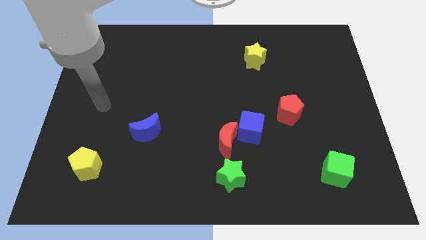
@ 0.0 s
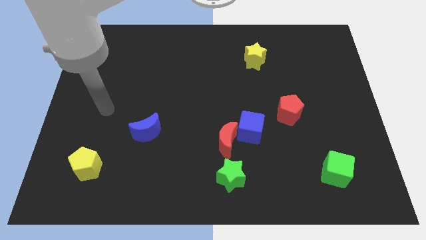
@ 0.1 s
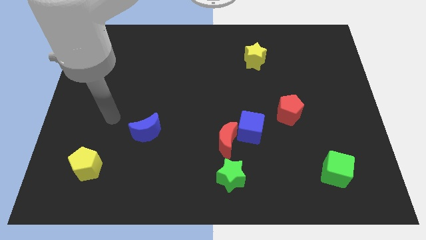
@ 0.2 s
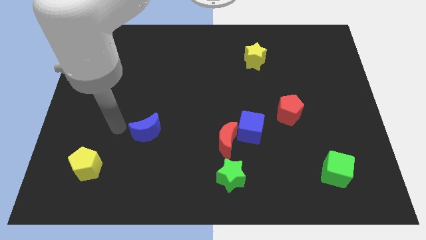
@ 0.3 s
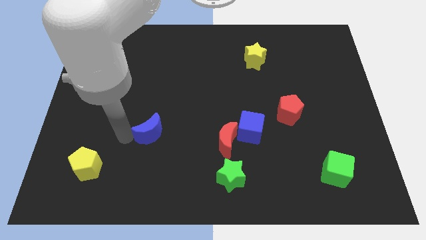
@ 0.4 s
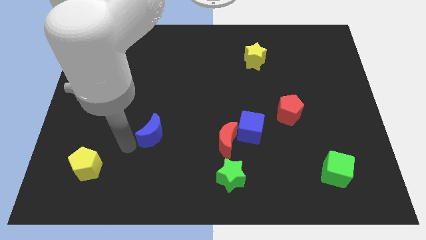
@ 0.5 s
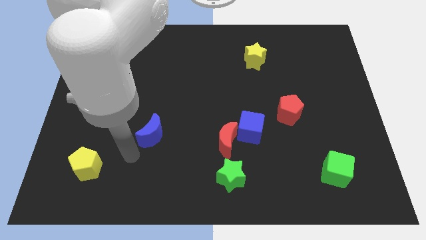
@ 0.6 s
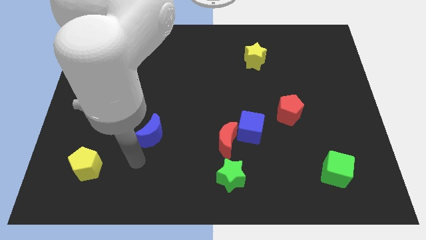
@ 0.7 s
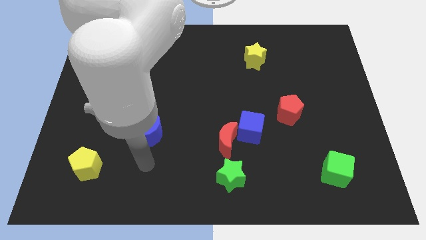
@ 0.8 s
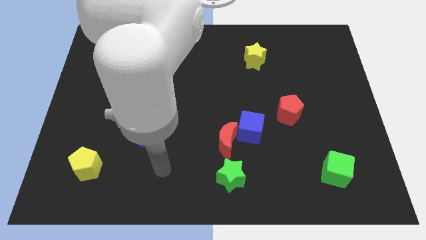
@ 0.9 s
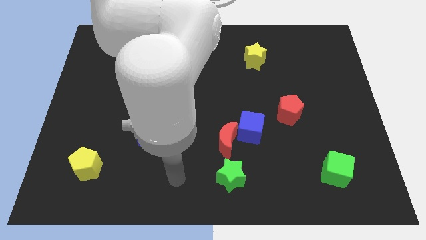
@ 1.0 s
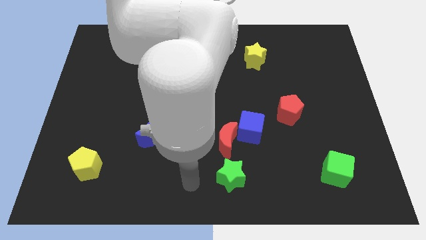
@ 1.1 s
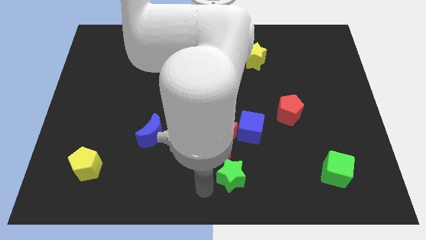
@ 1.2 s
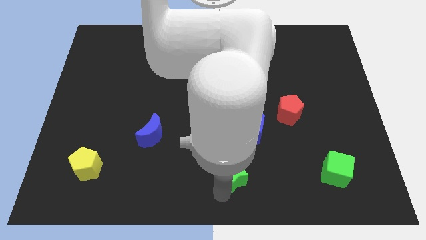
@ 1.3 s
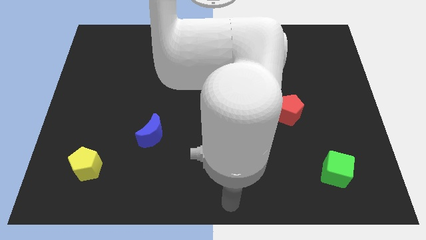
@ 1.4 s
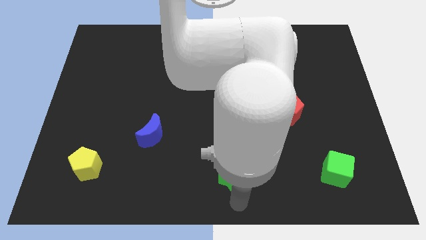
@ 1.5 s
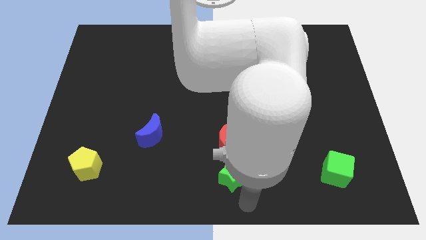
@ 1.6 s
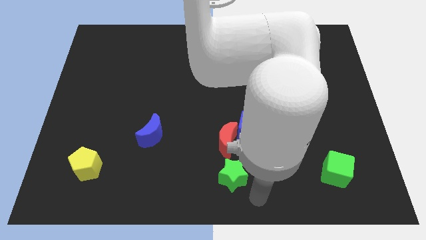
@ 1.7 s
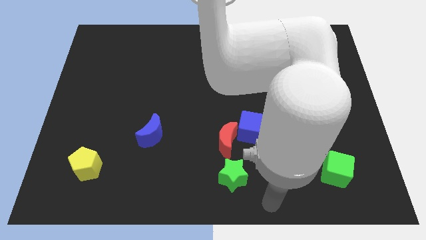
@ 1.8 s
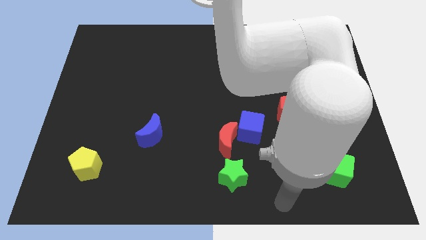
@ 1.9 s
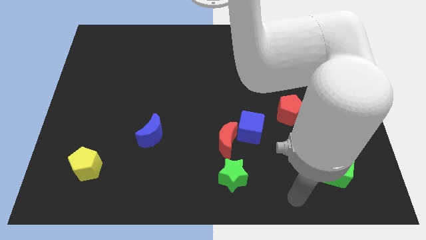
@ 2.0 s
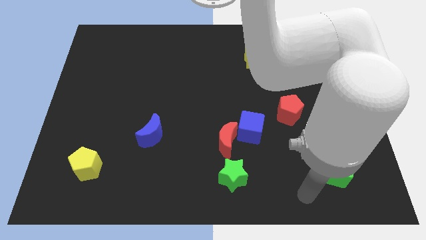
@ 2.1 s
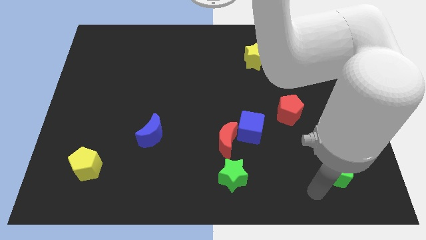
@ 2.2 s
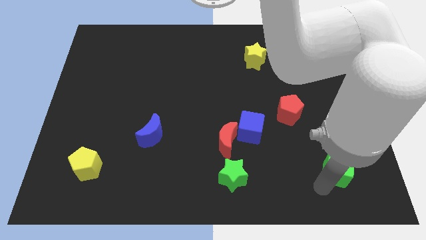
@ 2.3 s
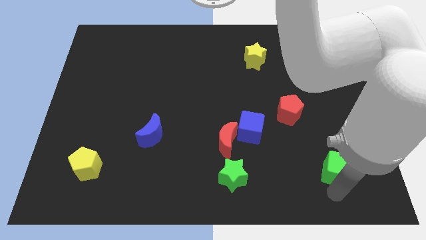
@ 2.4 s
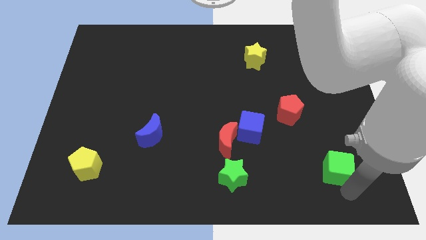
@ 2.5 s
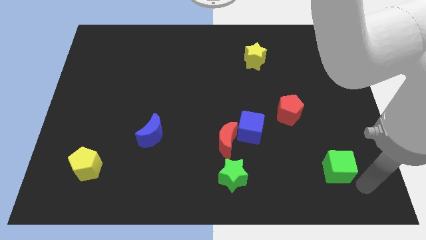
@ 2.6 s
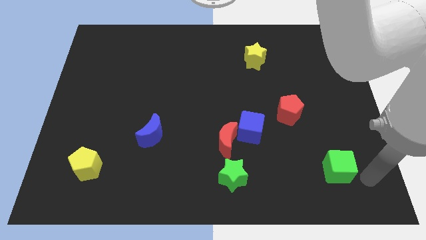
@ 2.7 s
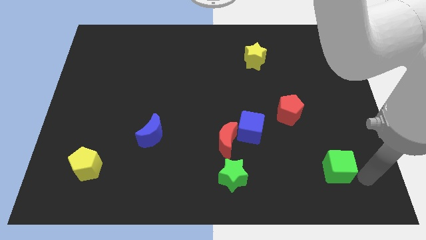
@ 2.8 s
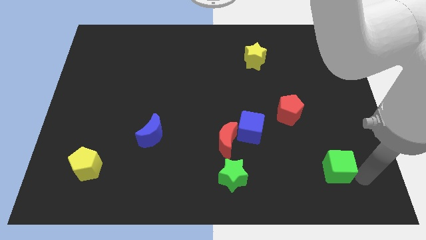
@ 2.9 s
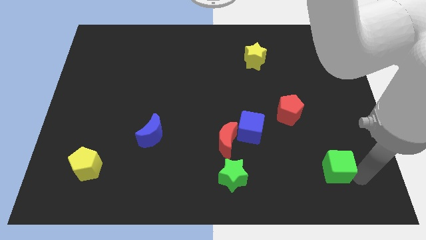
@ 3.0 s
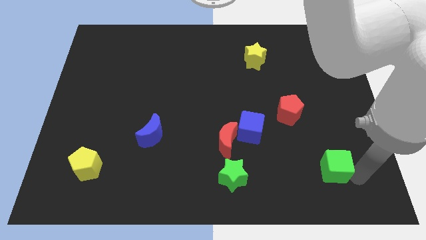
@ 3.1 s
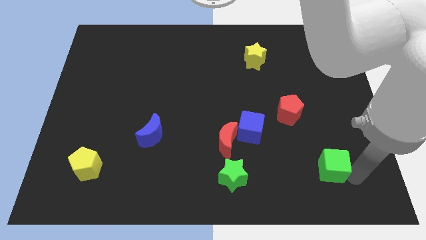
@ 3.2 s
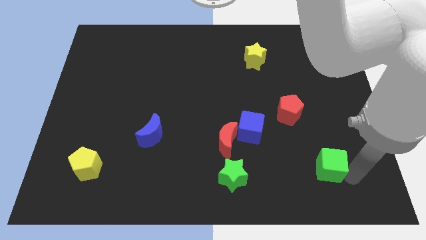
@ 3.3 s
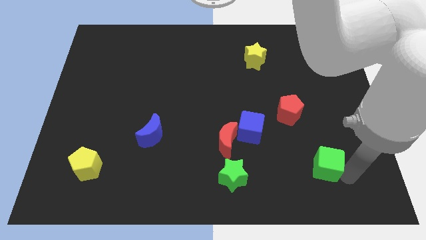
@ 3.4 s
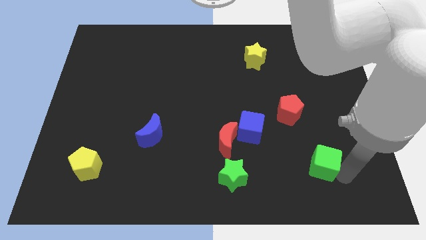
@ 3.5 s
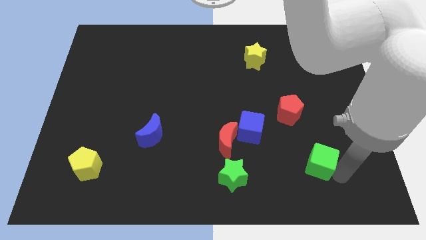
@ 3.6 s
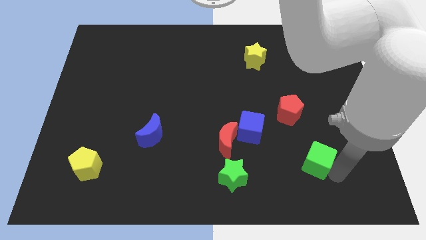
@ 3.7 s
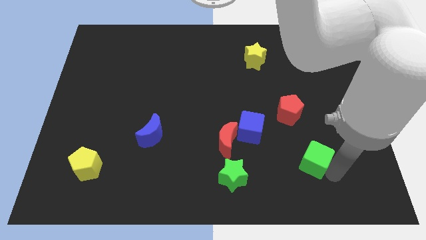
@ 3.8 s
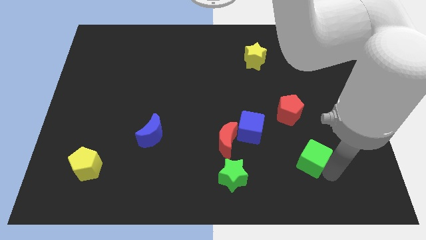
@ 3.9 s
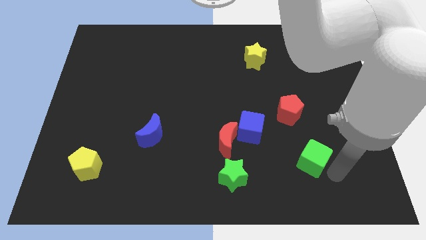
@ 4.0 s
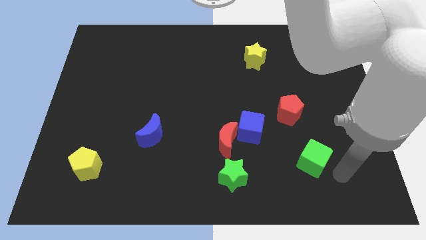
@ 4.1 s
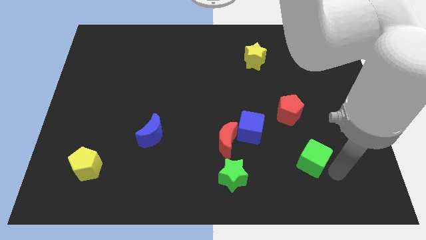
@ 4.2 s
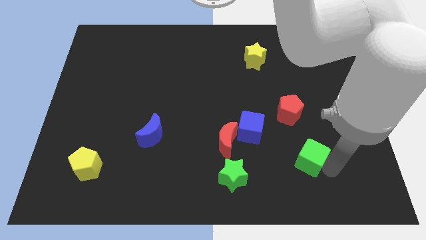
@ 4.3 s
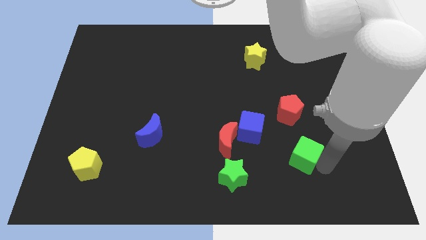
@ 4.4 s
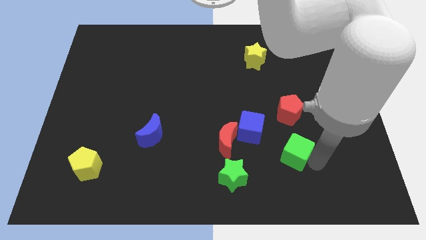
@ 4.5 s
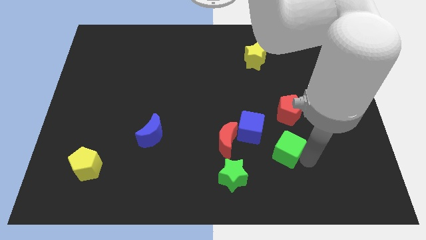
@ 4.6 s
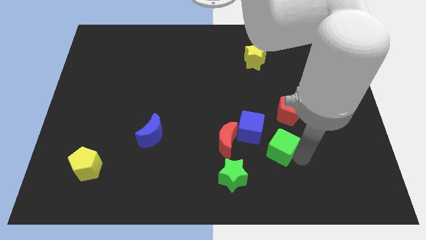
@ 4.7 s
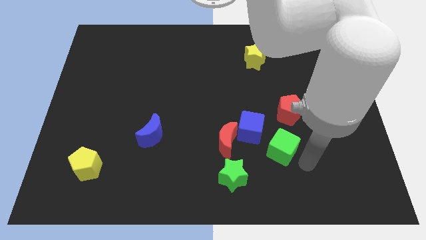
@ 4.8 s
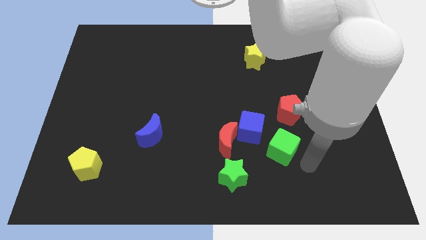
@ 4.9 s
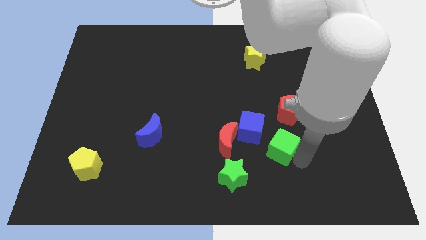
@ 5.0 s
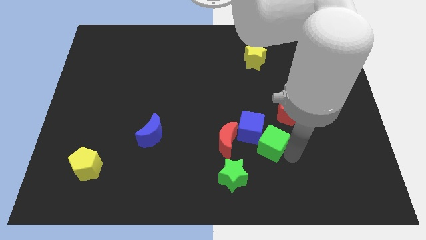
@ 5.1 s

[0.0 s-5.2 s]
slide the green cube to the blue cube

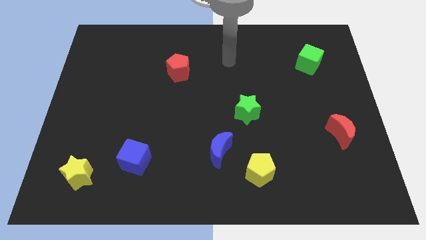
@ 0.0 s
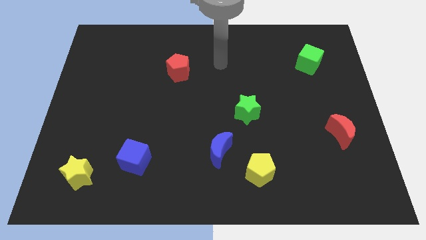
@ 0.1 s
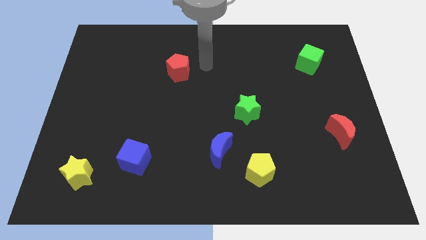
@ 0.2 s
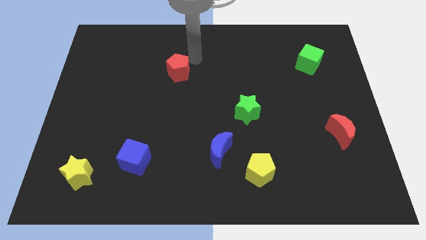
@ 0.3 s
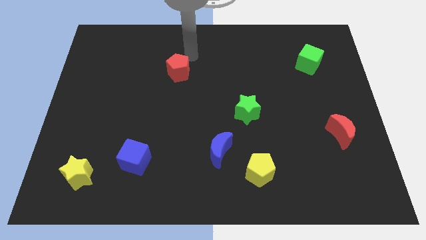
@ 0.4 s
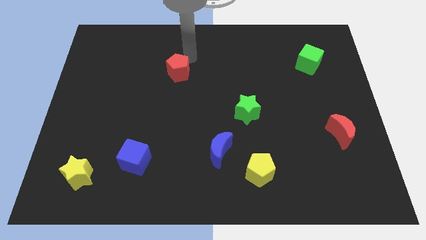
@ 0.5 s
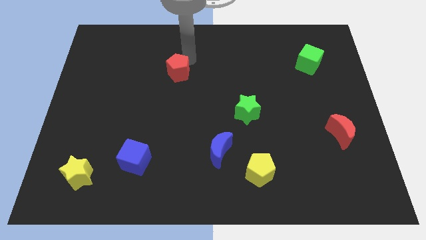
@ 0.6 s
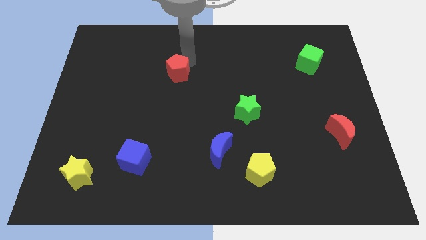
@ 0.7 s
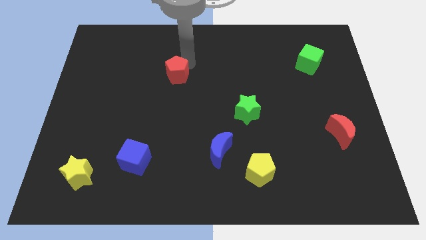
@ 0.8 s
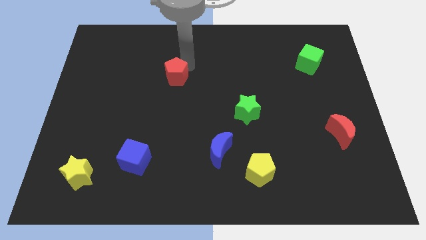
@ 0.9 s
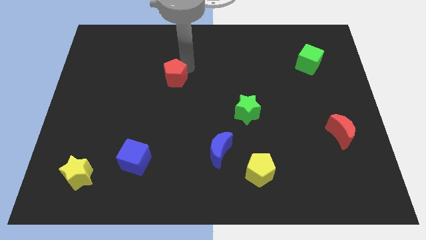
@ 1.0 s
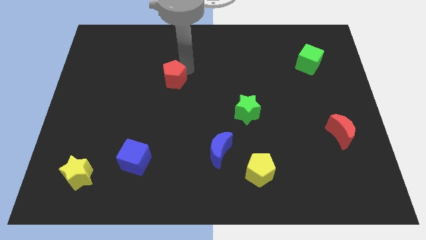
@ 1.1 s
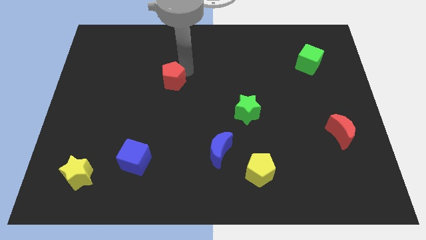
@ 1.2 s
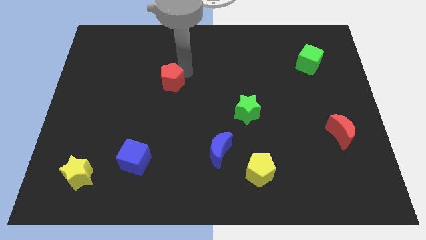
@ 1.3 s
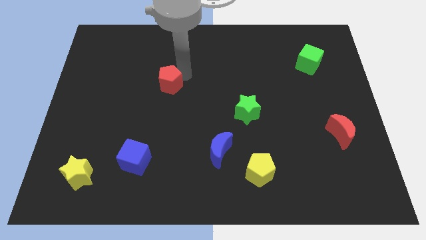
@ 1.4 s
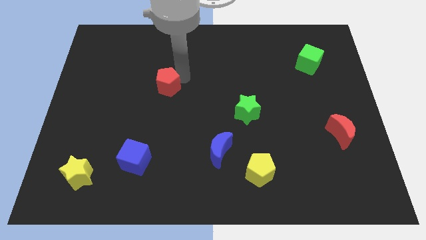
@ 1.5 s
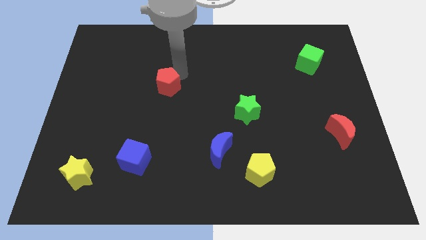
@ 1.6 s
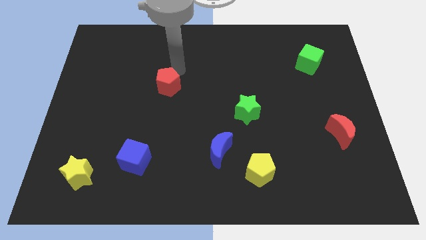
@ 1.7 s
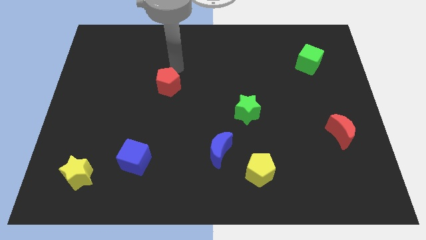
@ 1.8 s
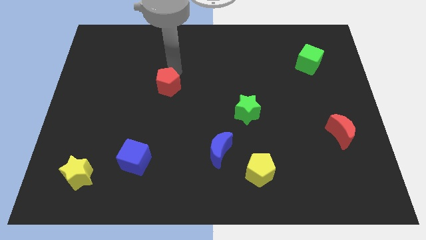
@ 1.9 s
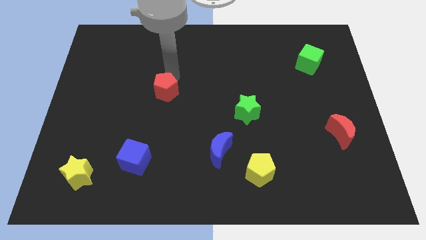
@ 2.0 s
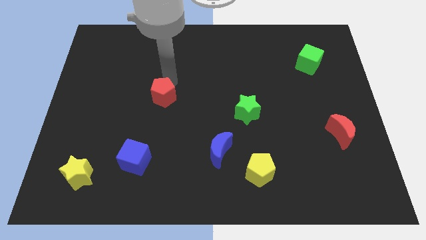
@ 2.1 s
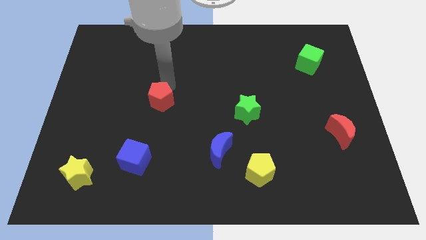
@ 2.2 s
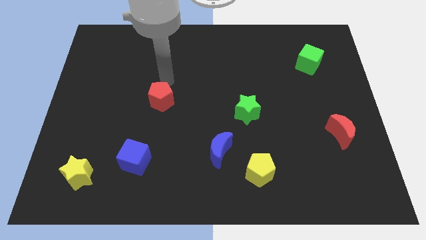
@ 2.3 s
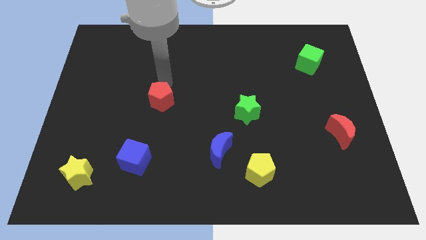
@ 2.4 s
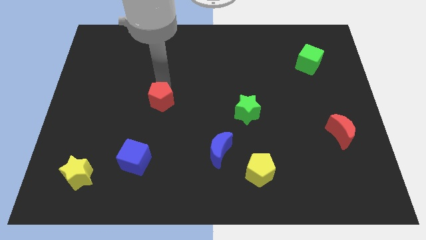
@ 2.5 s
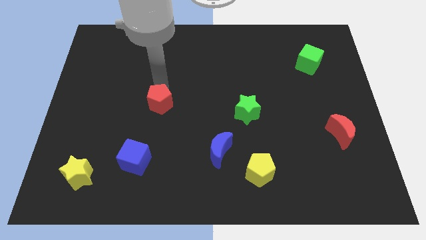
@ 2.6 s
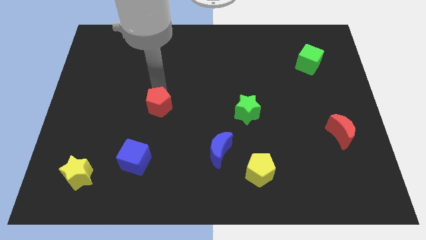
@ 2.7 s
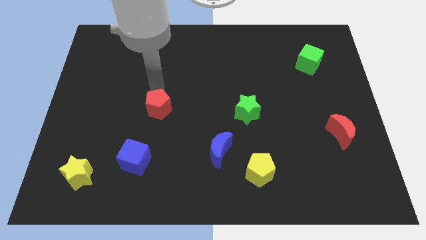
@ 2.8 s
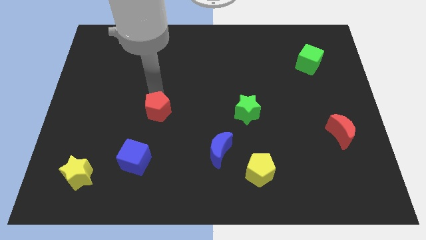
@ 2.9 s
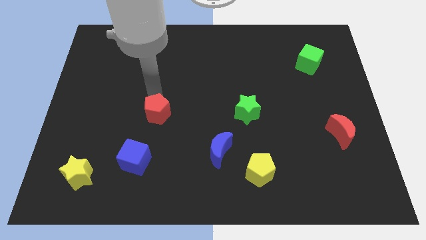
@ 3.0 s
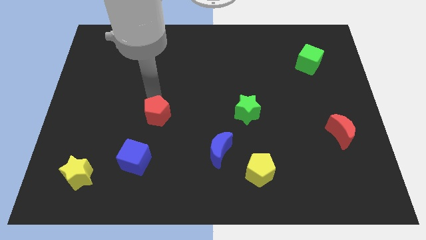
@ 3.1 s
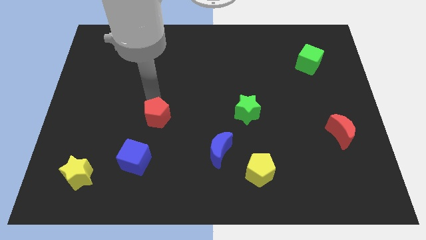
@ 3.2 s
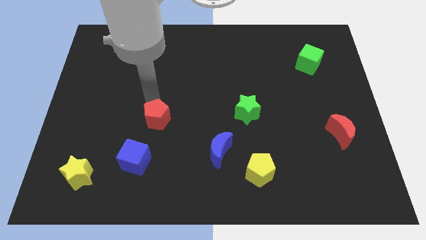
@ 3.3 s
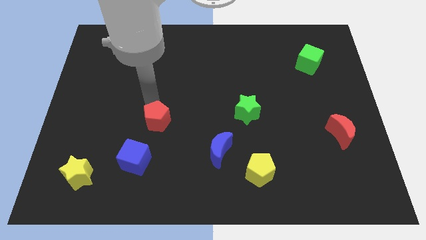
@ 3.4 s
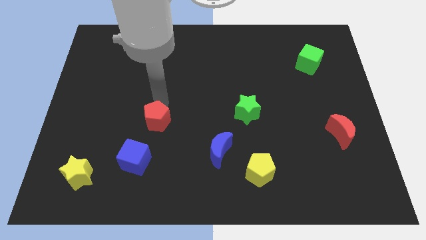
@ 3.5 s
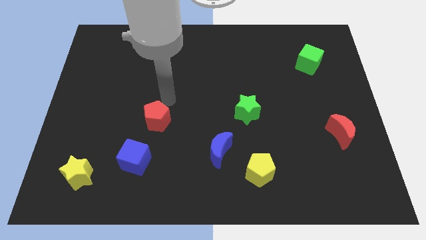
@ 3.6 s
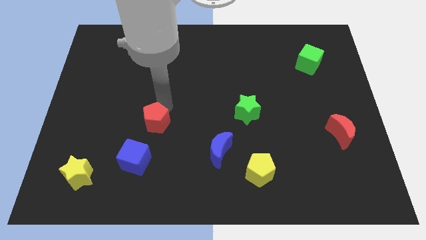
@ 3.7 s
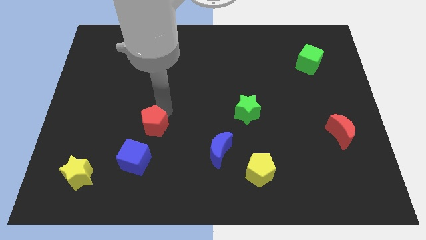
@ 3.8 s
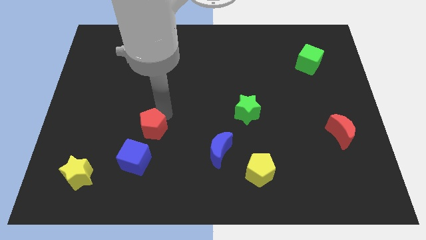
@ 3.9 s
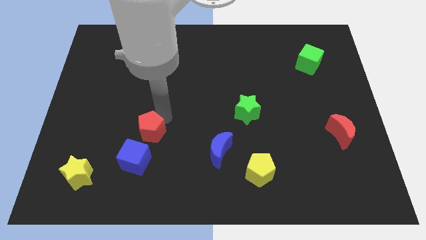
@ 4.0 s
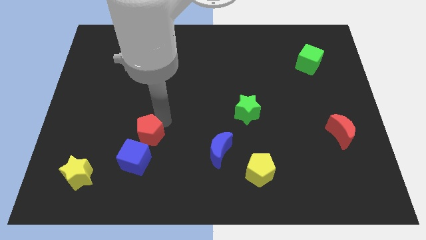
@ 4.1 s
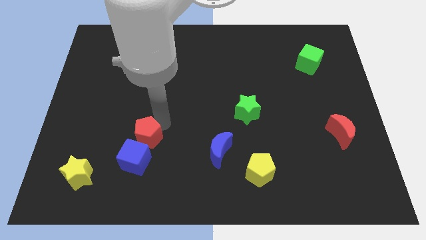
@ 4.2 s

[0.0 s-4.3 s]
push the red pentagon close to the blue cube
